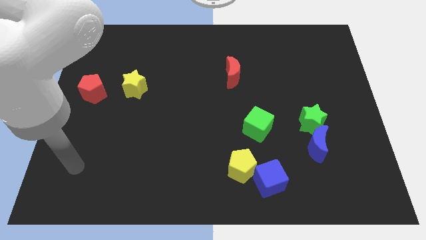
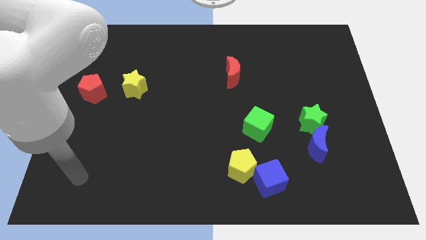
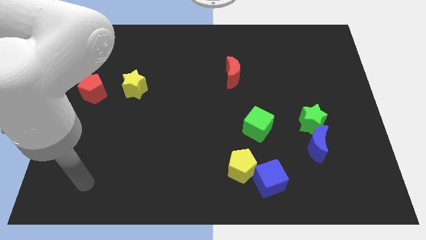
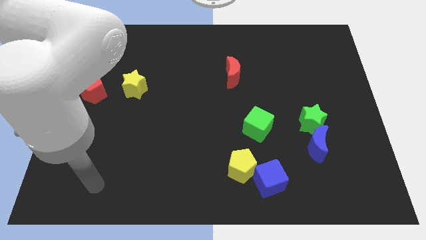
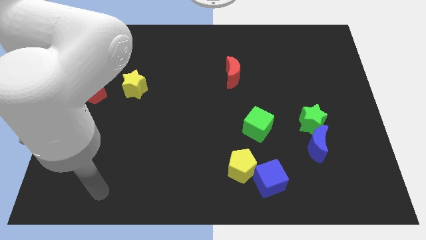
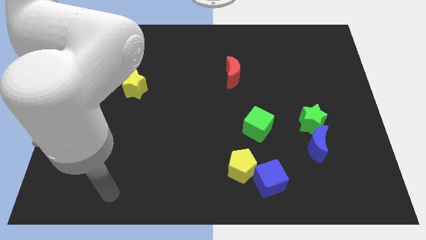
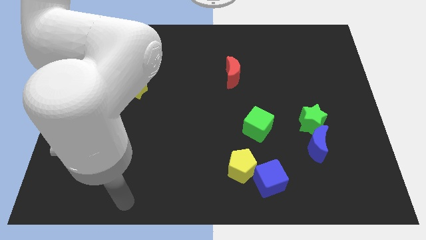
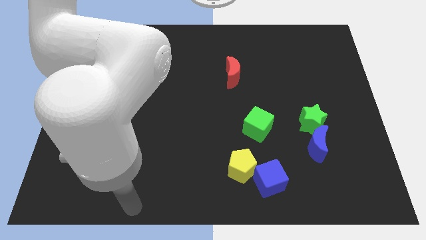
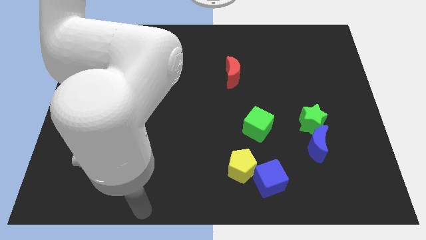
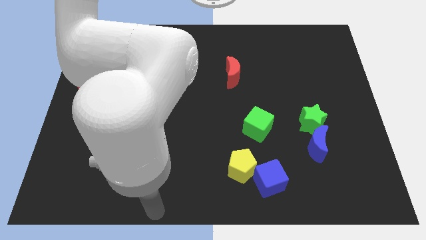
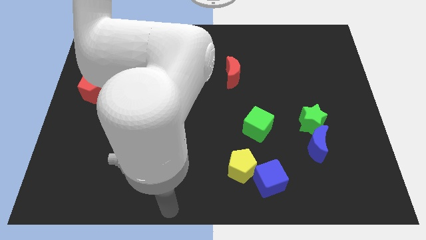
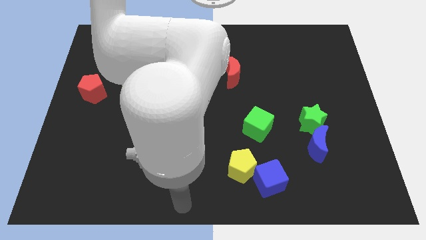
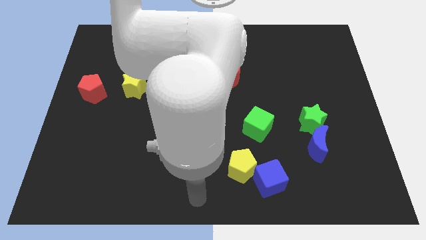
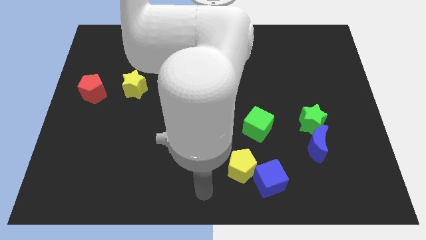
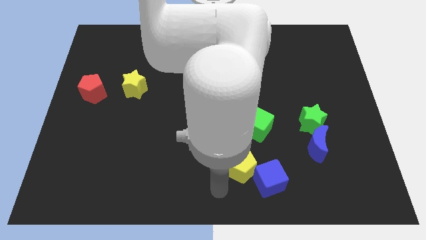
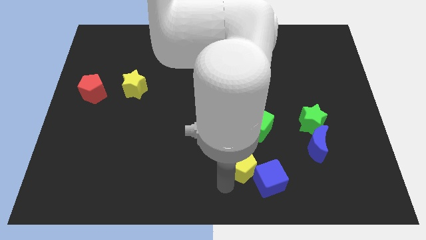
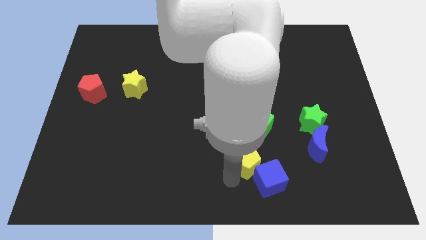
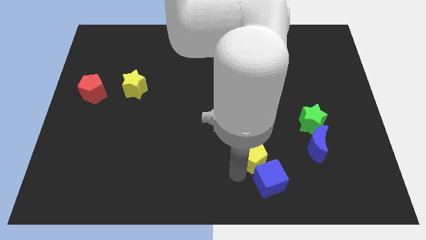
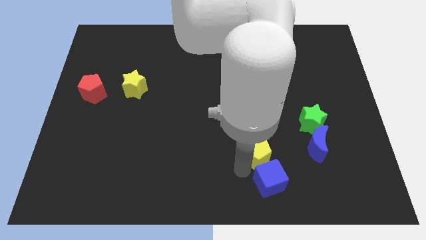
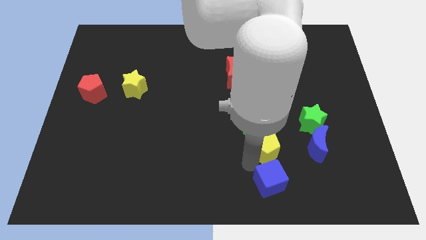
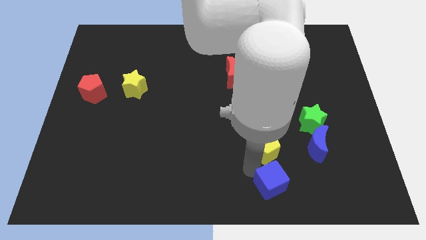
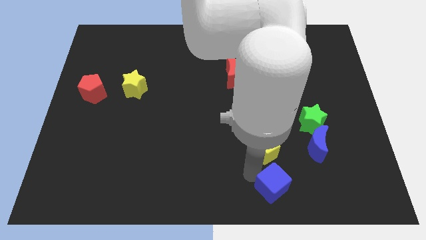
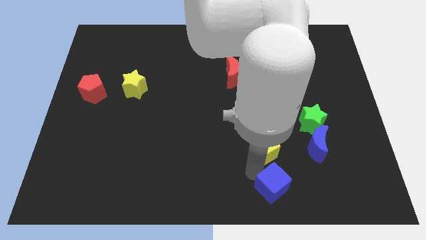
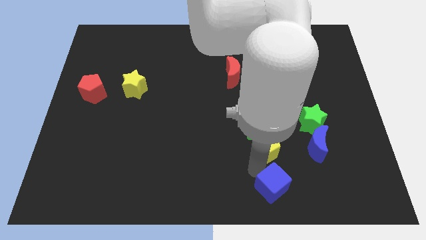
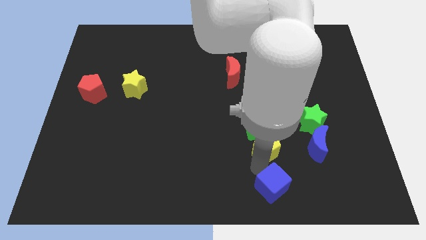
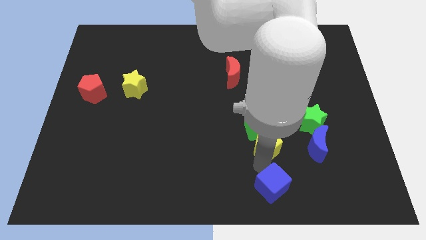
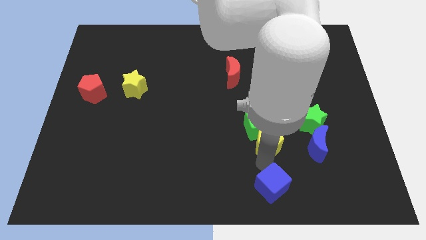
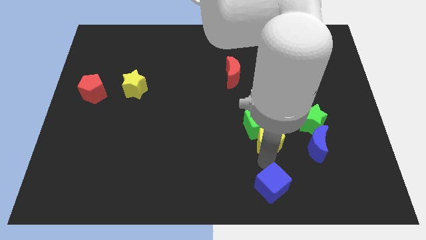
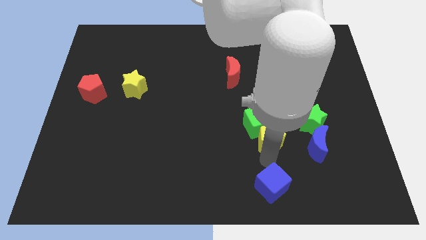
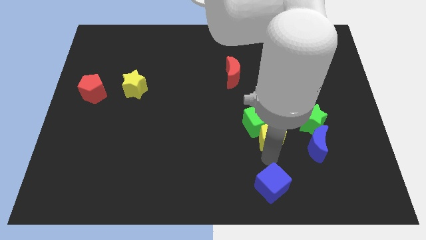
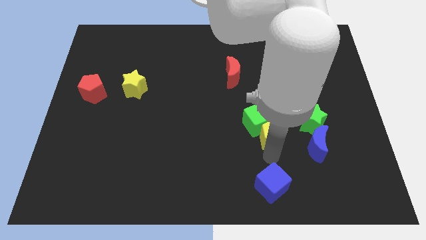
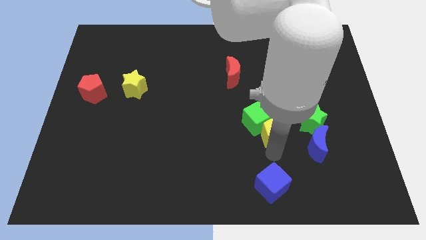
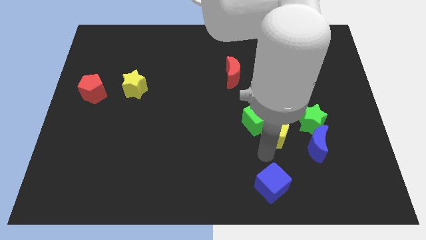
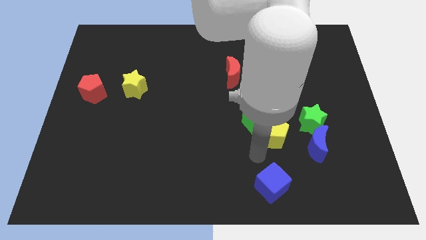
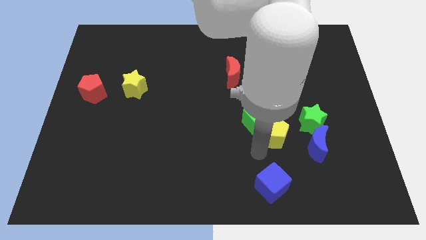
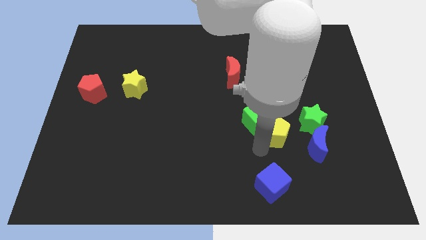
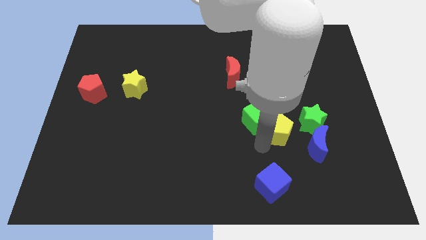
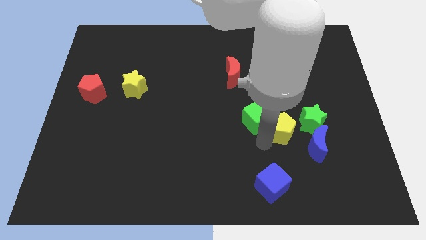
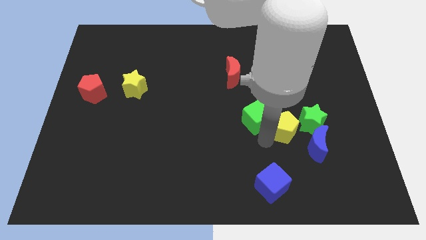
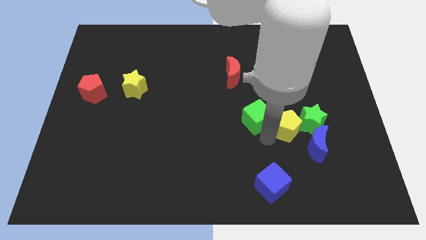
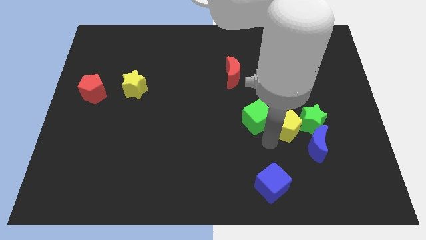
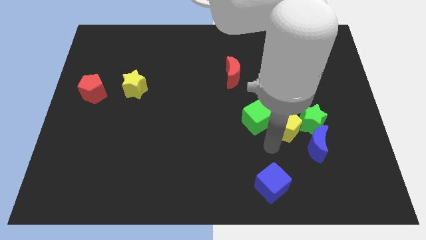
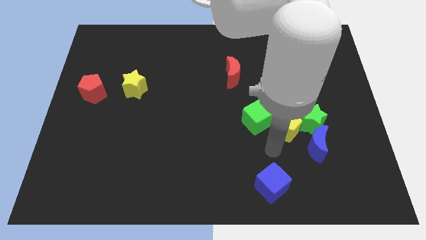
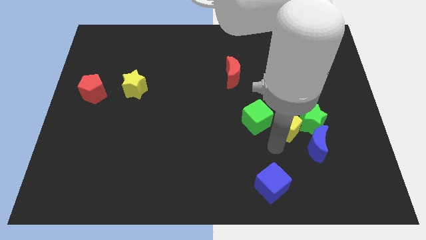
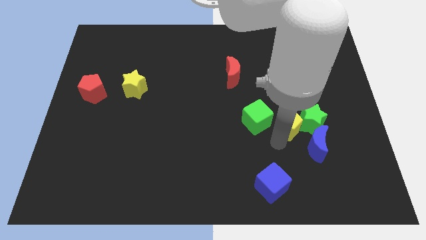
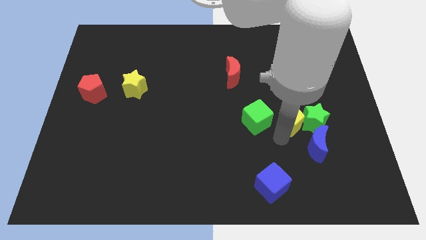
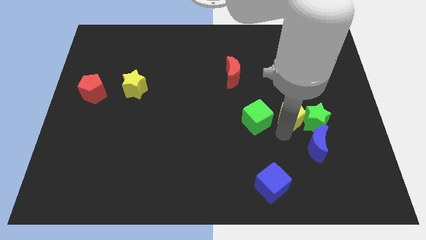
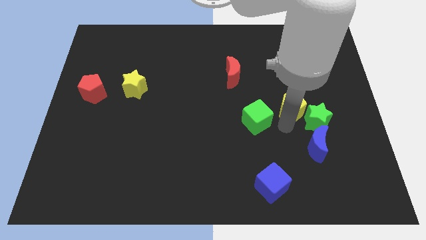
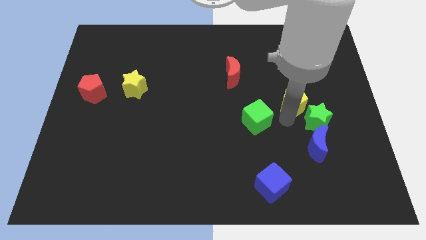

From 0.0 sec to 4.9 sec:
slide the yellow pentagon upwards and right diagonally

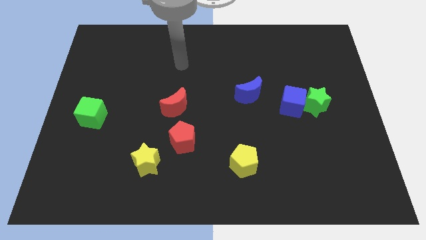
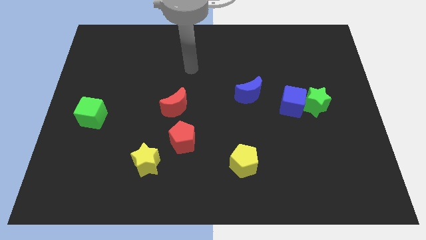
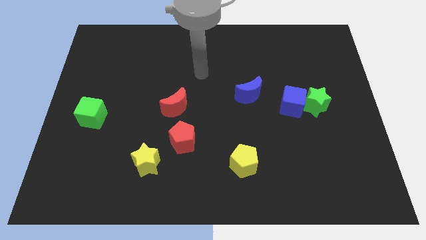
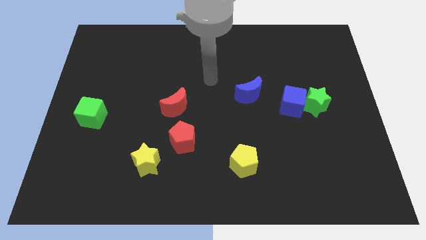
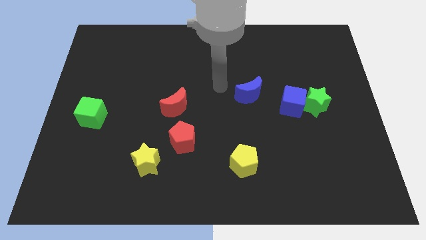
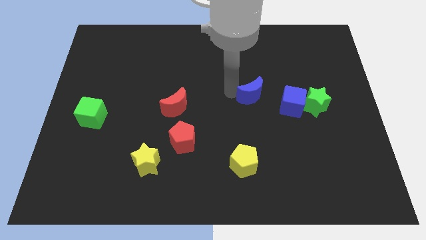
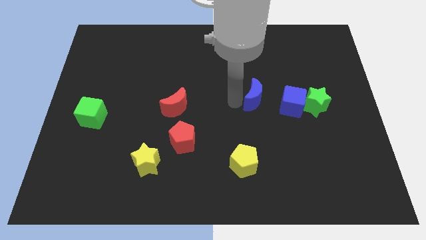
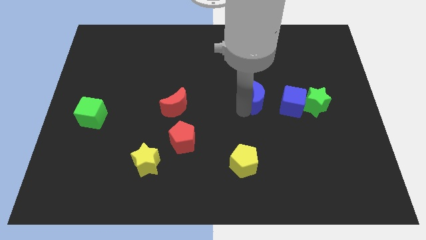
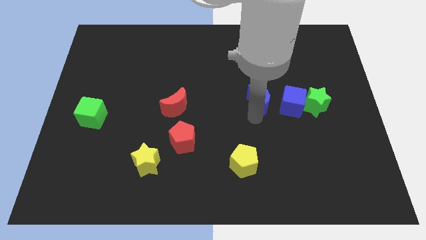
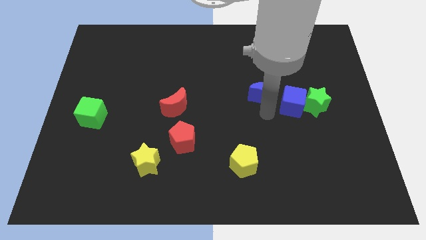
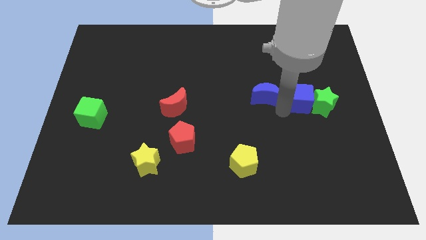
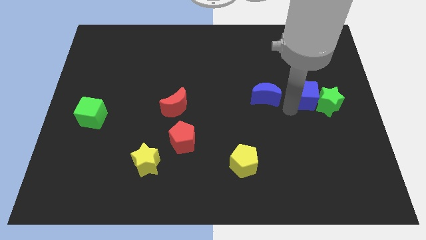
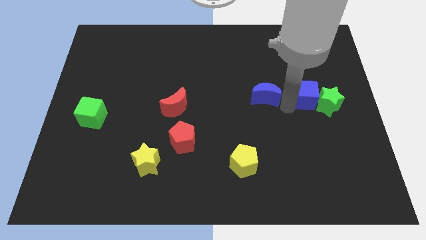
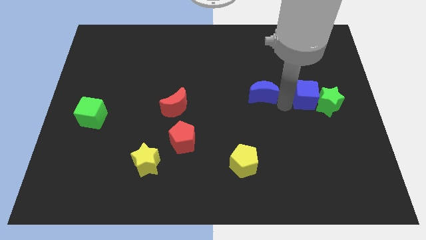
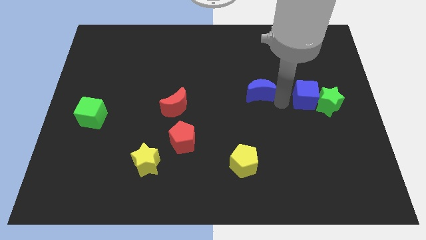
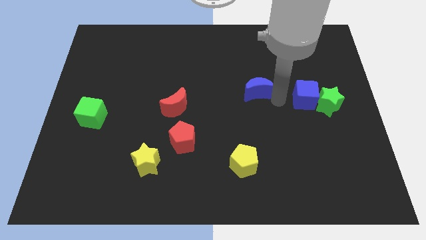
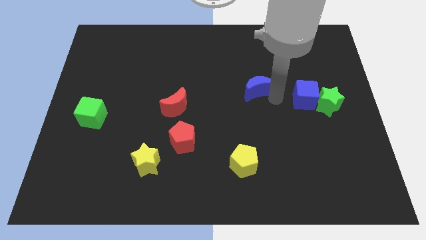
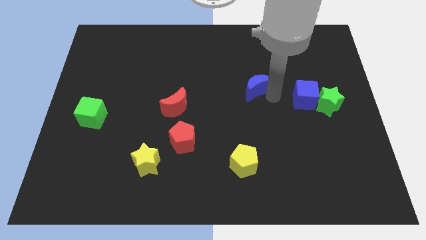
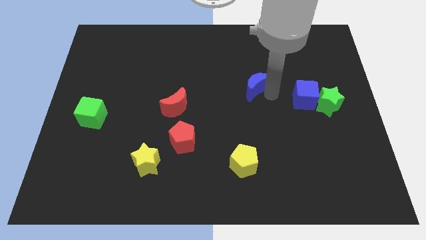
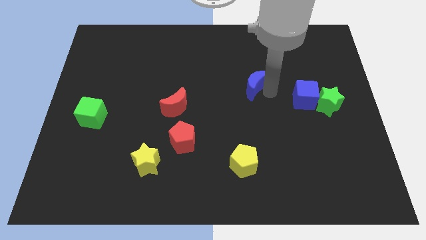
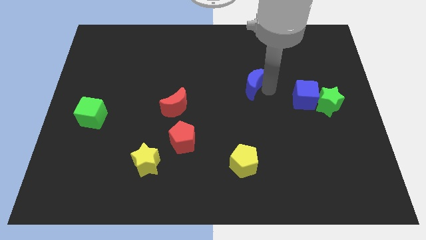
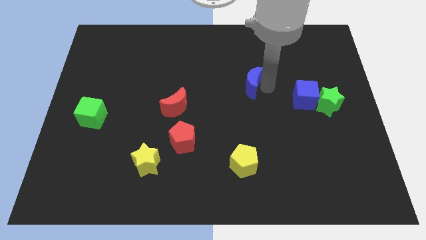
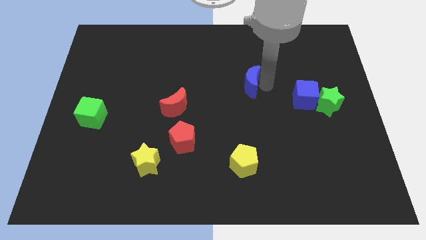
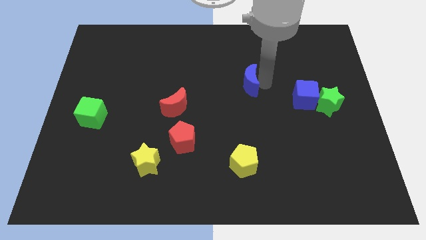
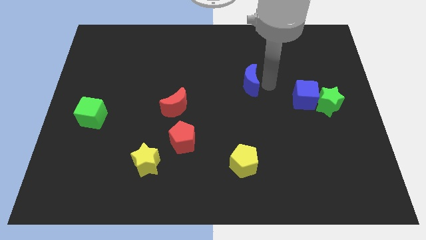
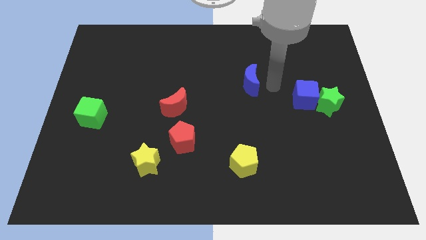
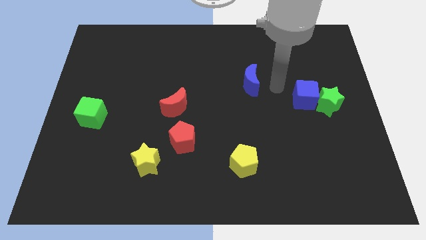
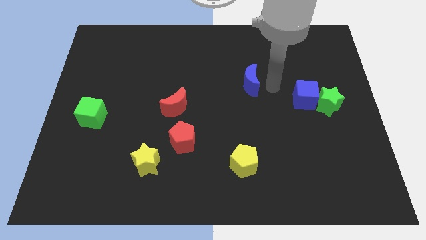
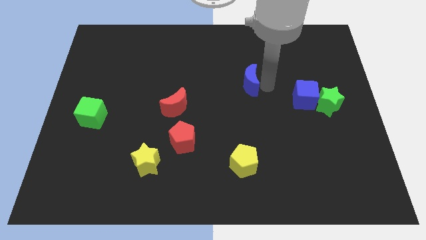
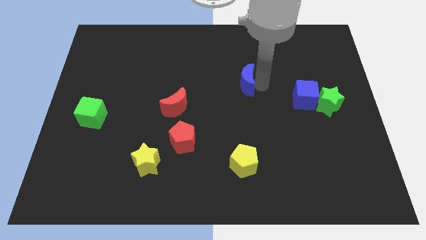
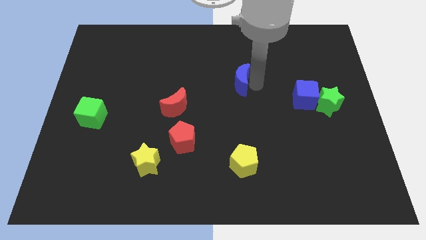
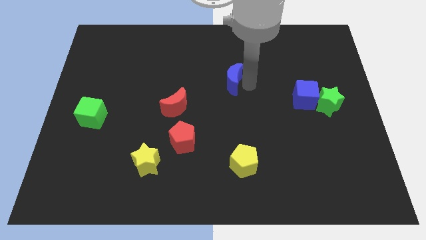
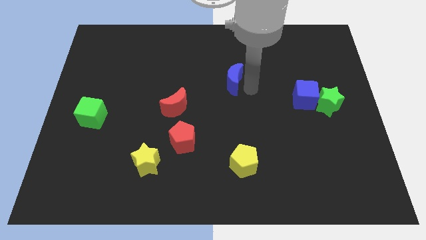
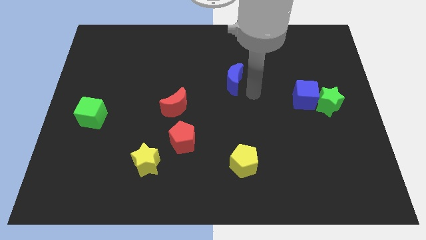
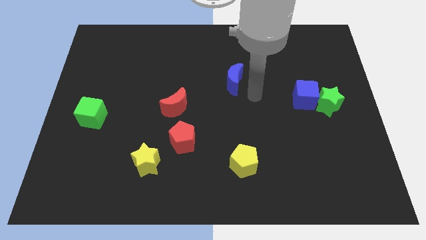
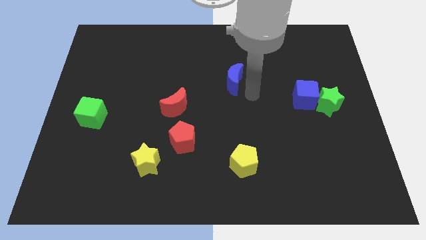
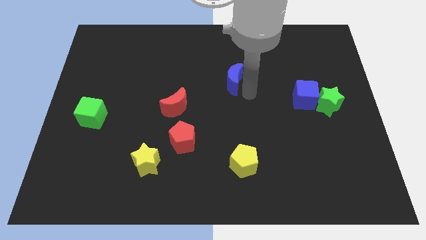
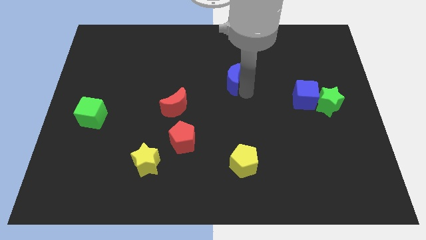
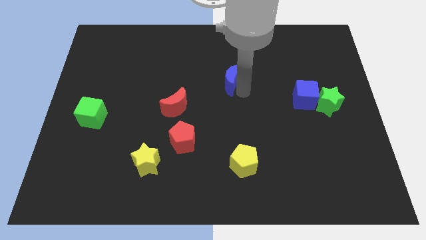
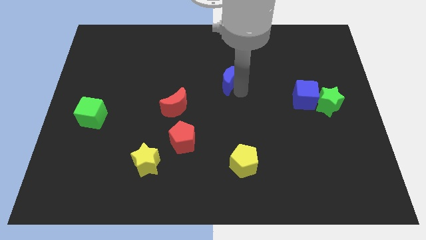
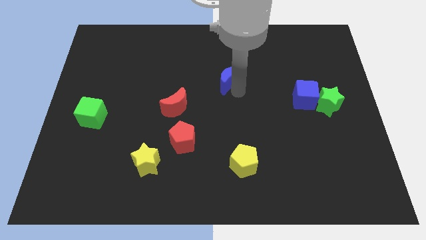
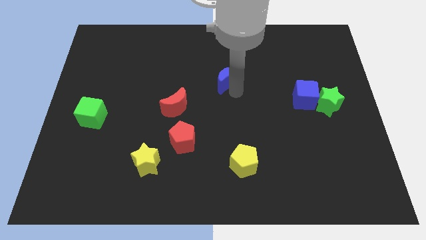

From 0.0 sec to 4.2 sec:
slightly move the blue moon up and then to the left
